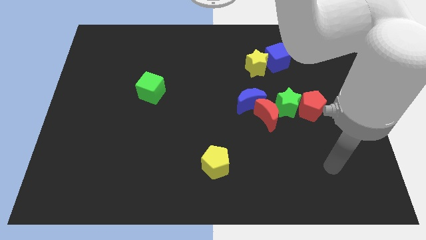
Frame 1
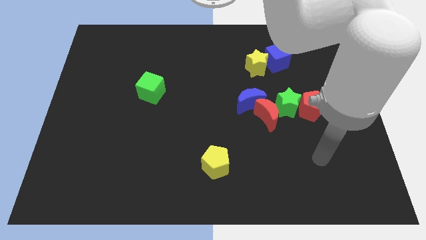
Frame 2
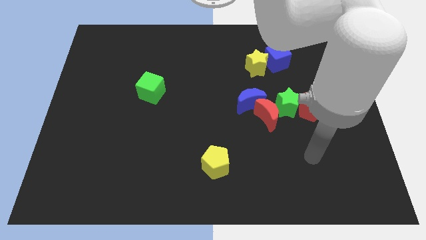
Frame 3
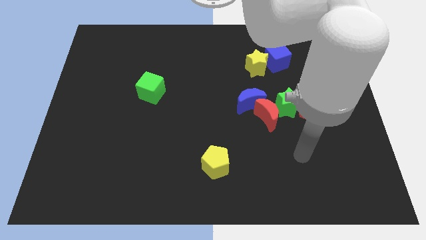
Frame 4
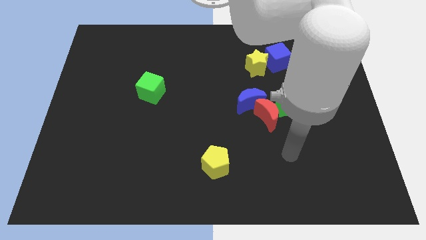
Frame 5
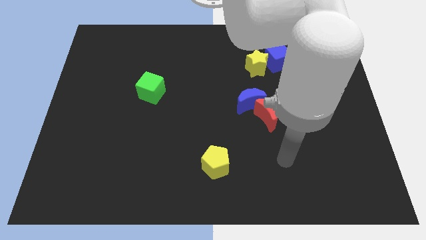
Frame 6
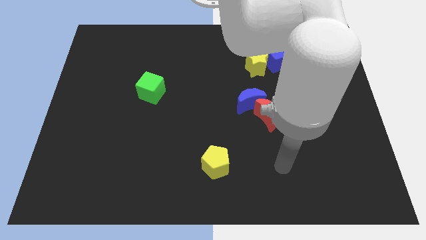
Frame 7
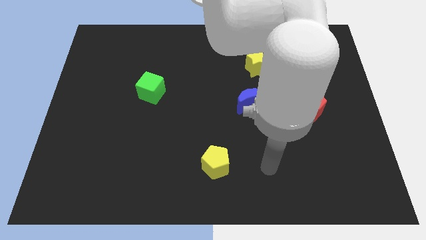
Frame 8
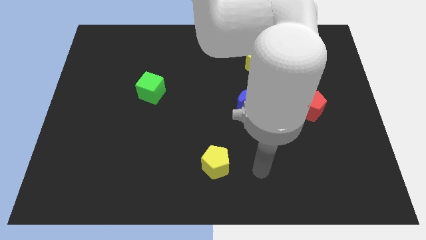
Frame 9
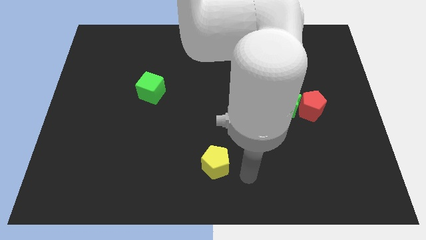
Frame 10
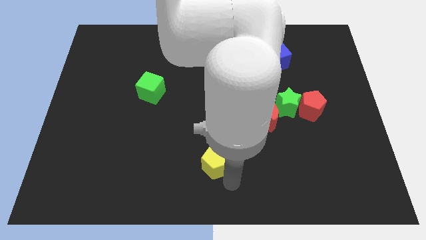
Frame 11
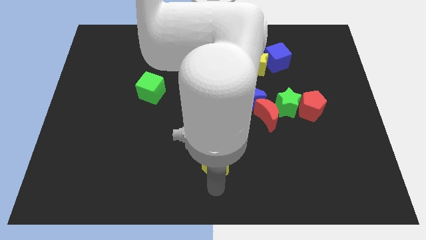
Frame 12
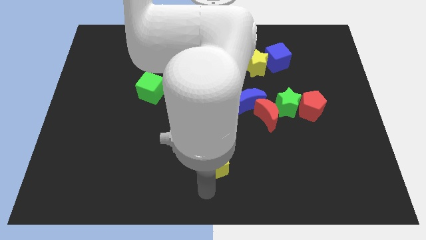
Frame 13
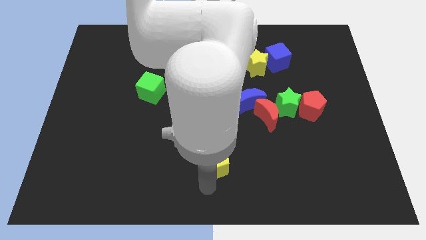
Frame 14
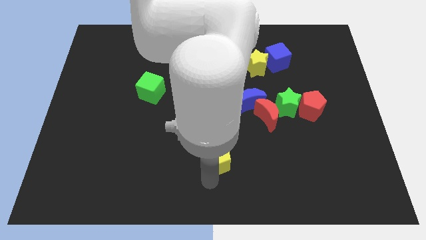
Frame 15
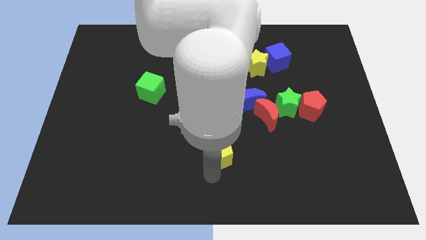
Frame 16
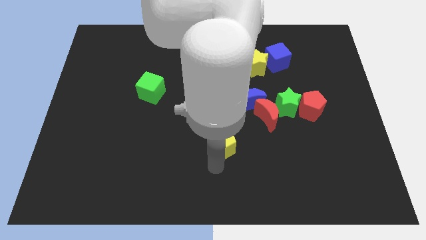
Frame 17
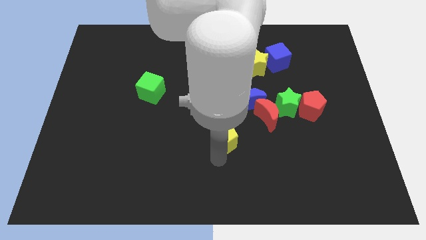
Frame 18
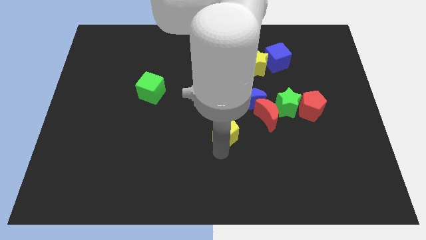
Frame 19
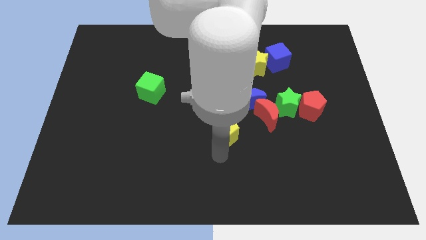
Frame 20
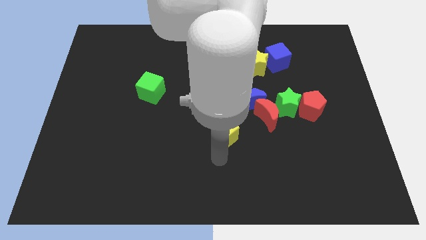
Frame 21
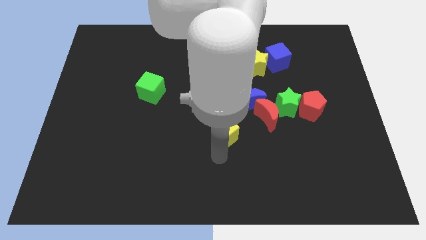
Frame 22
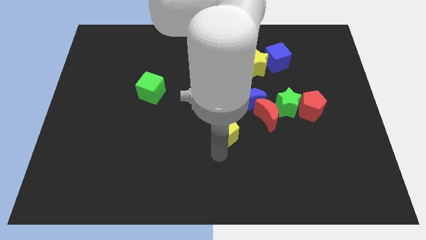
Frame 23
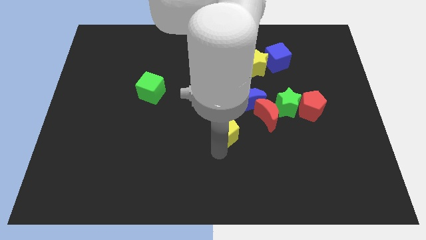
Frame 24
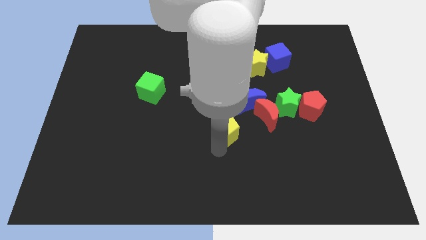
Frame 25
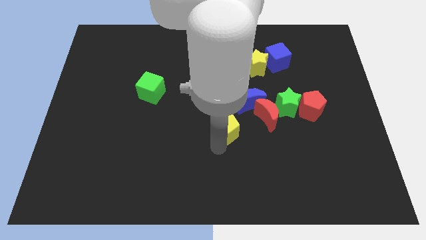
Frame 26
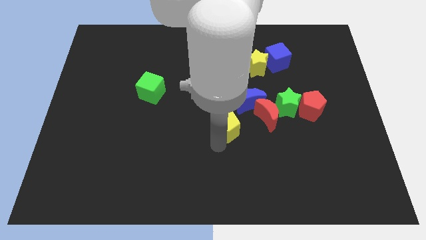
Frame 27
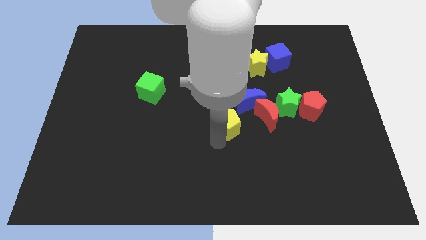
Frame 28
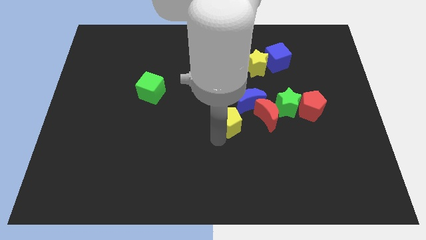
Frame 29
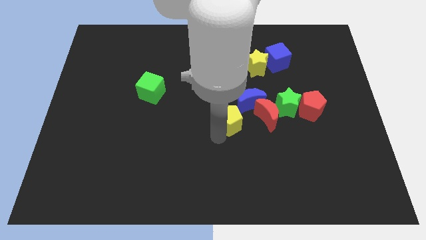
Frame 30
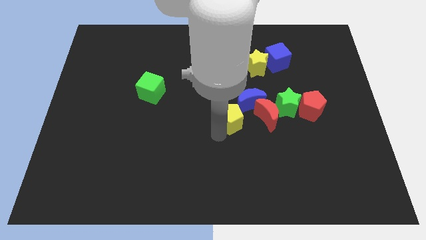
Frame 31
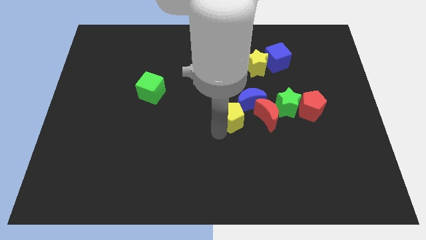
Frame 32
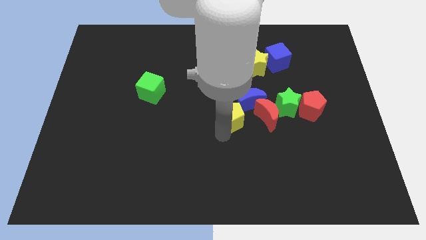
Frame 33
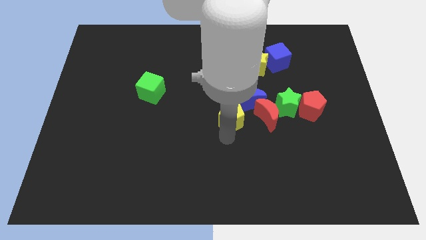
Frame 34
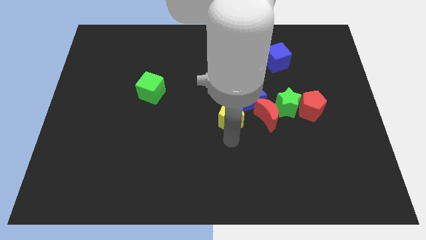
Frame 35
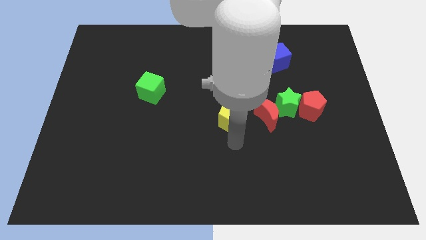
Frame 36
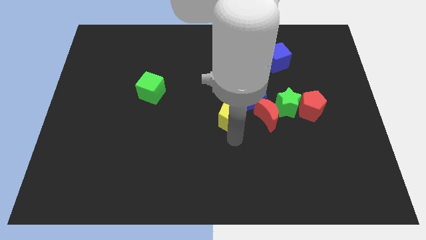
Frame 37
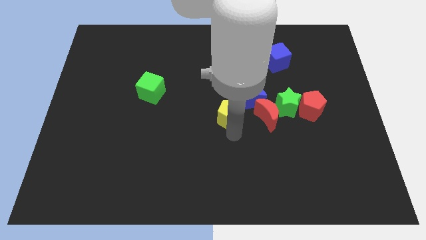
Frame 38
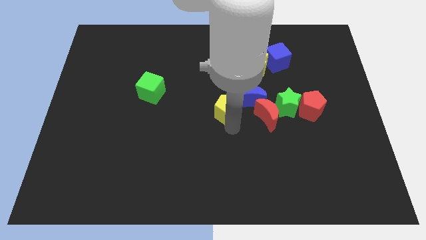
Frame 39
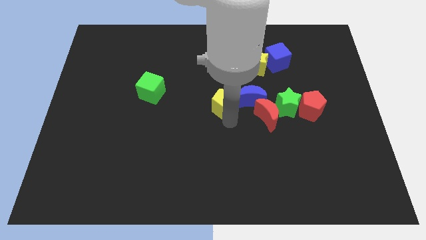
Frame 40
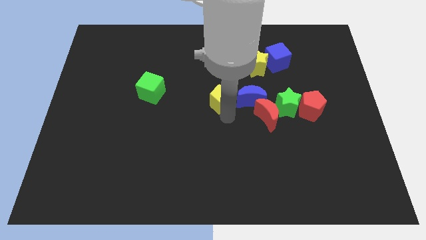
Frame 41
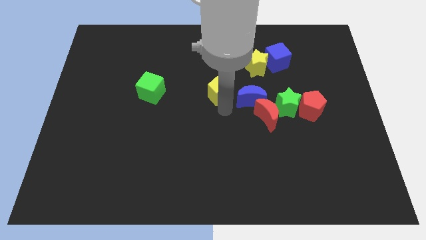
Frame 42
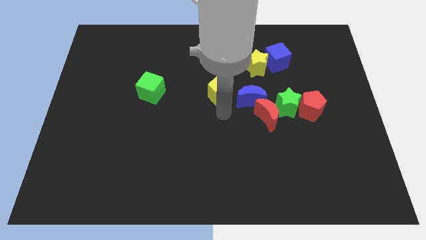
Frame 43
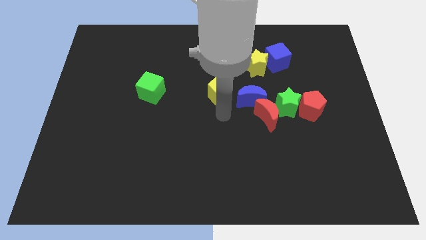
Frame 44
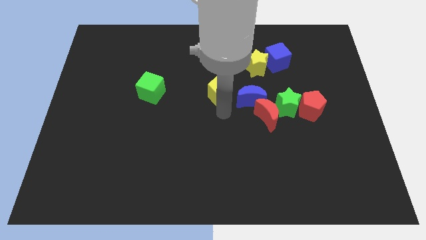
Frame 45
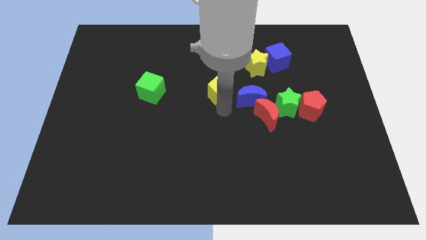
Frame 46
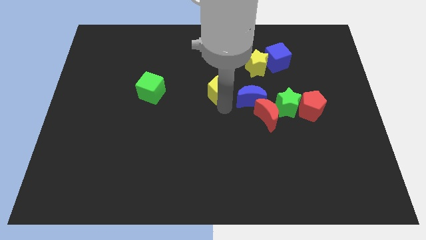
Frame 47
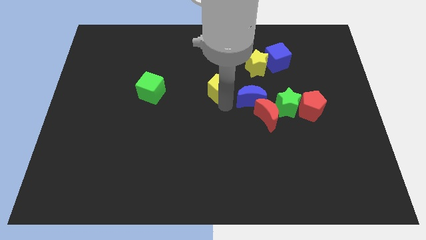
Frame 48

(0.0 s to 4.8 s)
push the yellow pentagon upwards

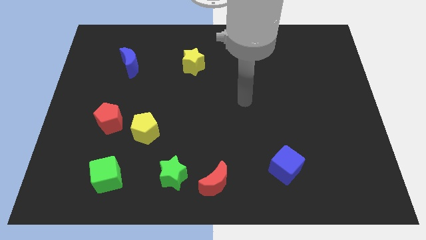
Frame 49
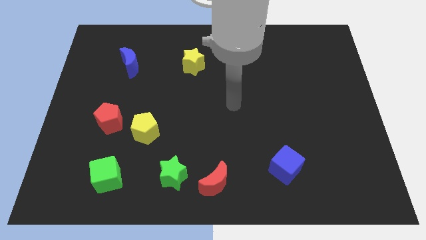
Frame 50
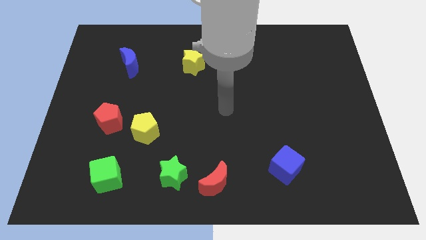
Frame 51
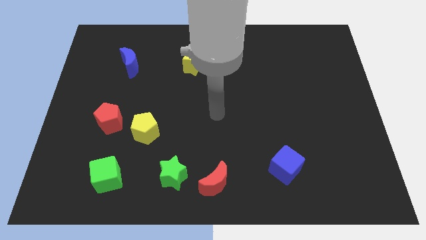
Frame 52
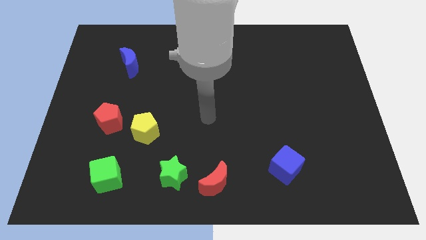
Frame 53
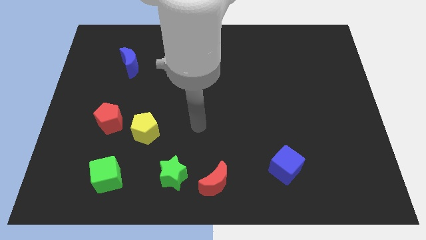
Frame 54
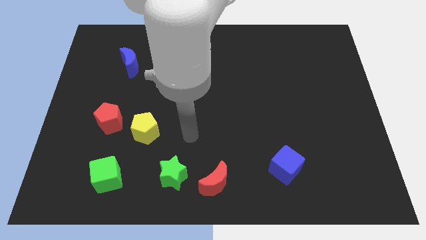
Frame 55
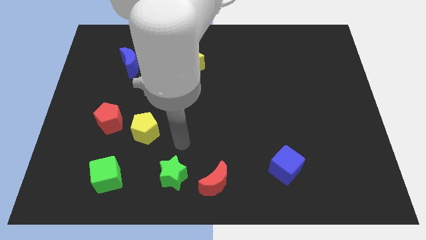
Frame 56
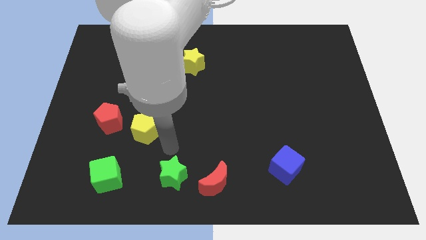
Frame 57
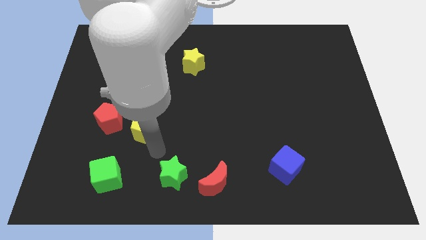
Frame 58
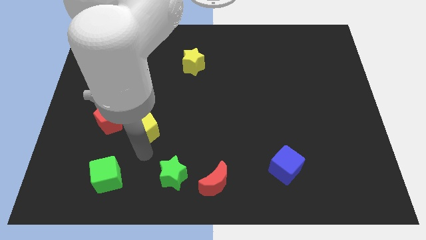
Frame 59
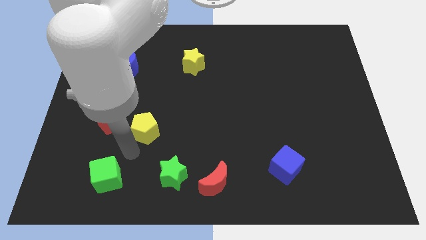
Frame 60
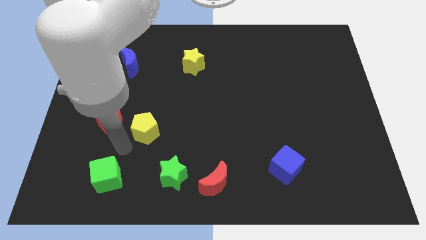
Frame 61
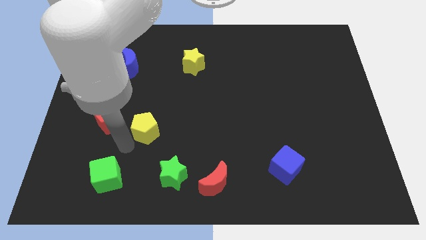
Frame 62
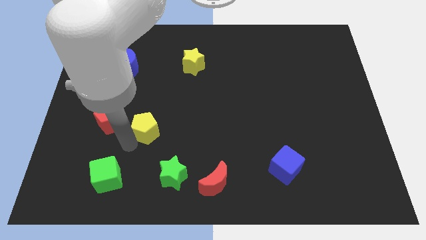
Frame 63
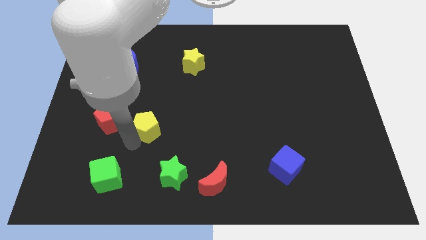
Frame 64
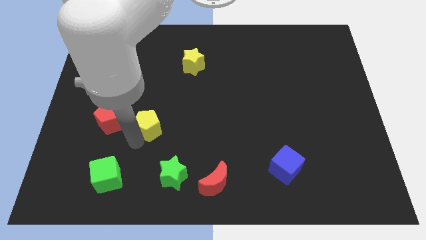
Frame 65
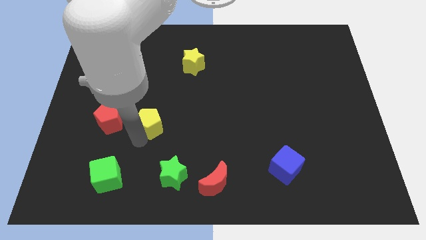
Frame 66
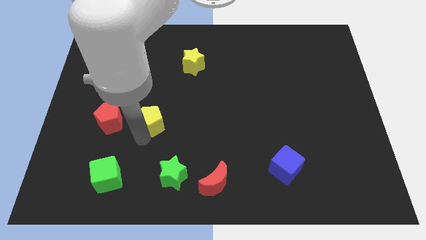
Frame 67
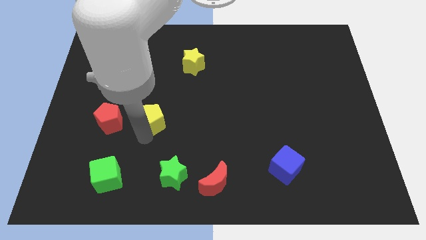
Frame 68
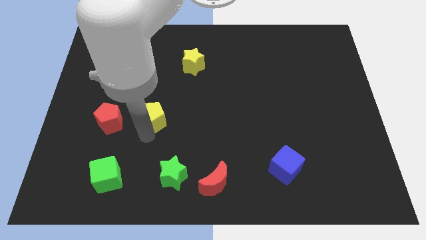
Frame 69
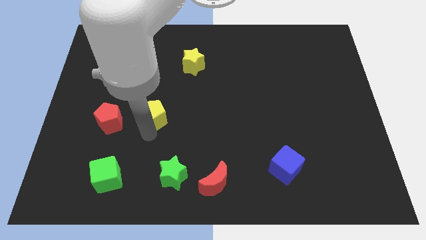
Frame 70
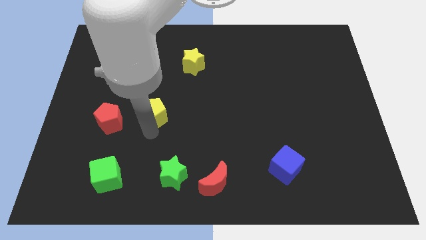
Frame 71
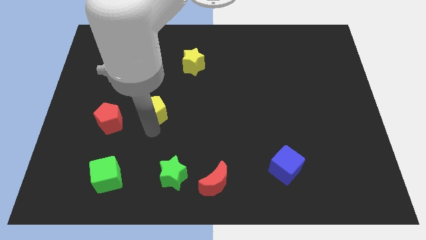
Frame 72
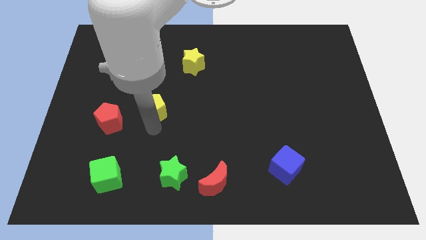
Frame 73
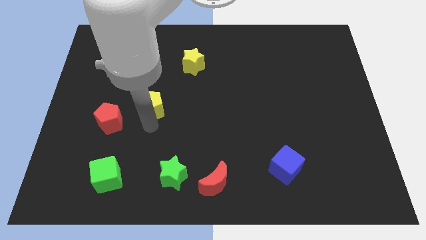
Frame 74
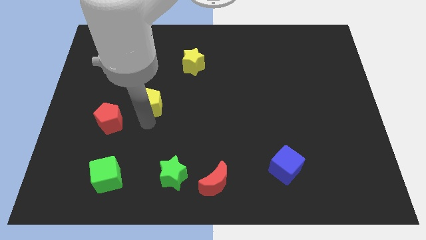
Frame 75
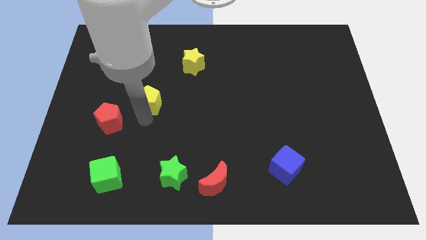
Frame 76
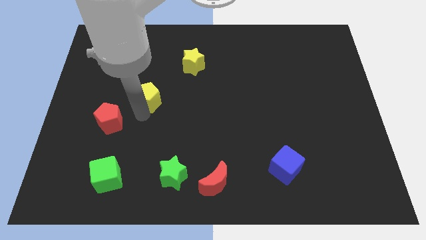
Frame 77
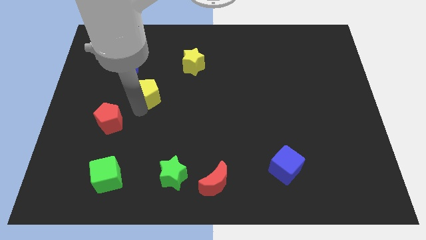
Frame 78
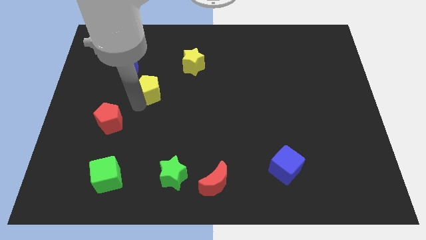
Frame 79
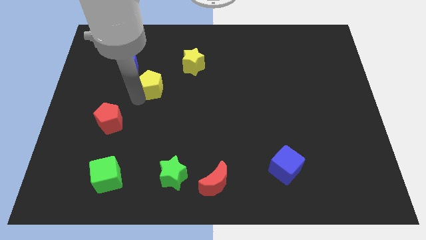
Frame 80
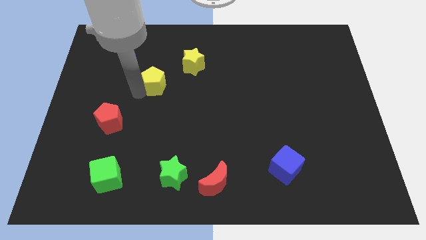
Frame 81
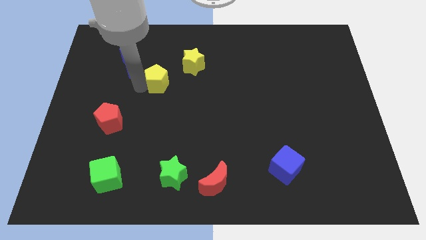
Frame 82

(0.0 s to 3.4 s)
slightly slide the yellow pentagon upwards and to the right diagonally
